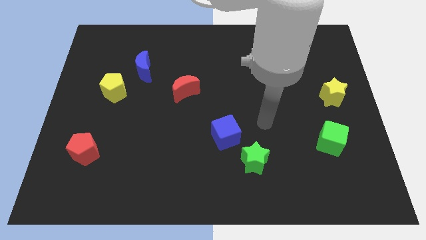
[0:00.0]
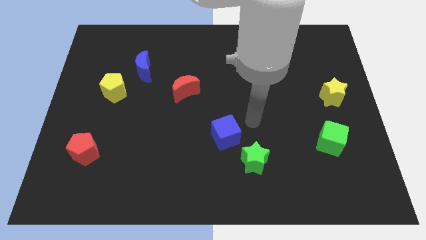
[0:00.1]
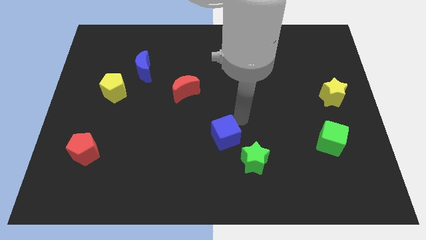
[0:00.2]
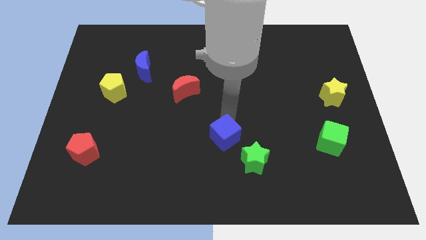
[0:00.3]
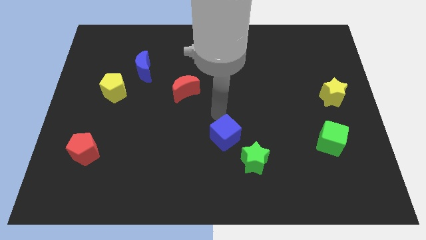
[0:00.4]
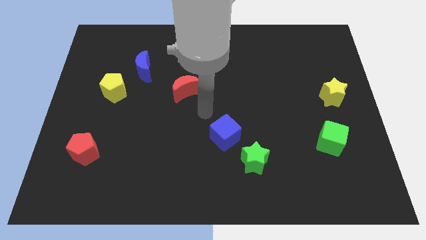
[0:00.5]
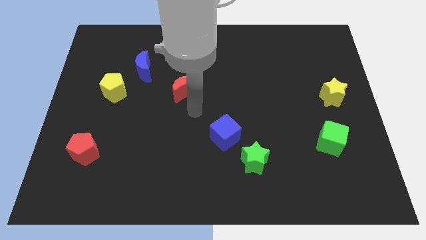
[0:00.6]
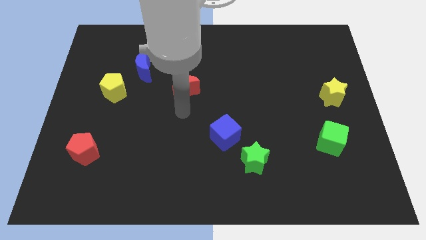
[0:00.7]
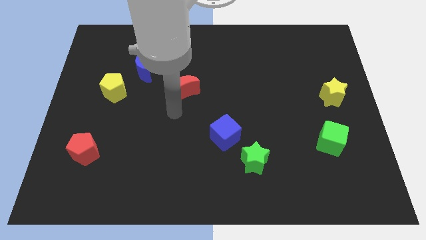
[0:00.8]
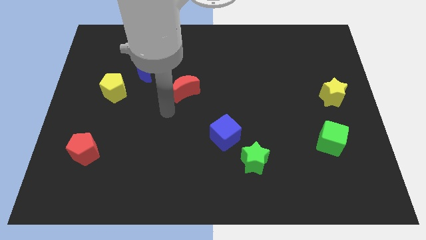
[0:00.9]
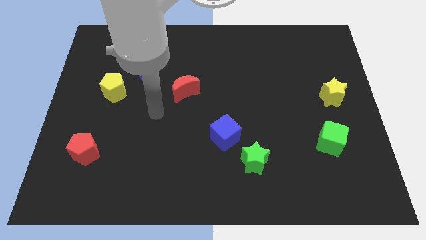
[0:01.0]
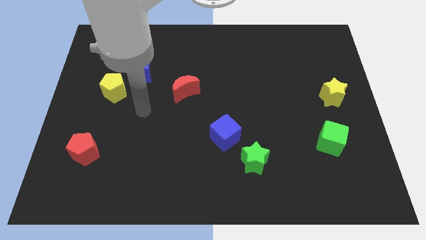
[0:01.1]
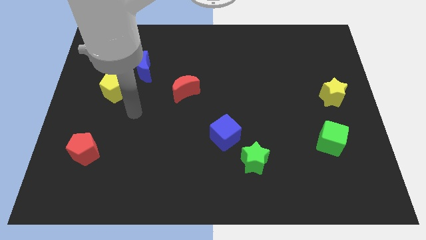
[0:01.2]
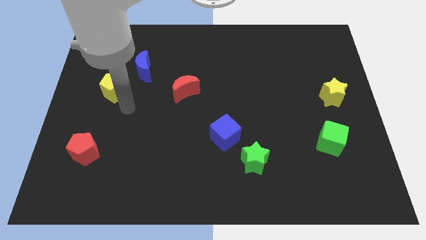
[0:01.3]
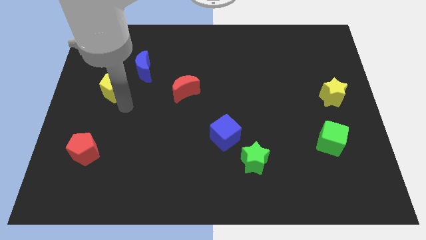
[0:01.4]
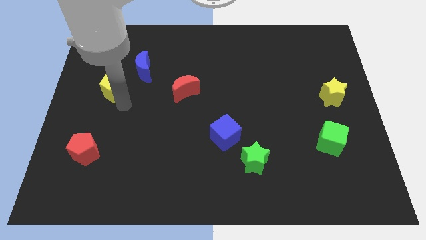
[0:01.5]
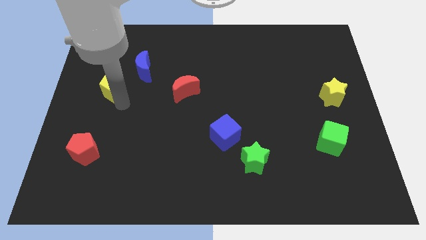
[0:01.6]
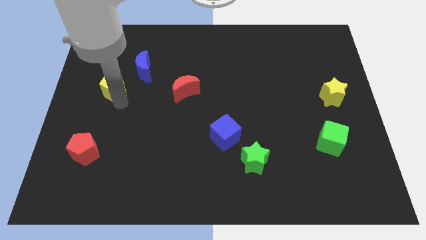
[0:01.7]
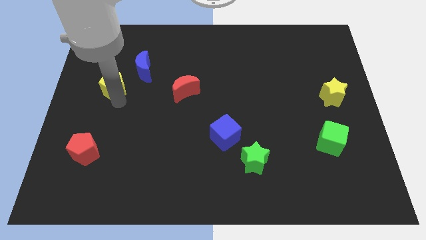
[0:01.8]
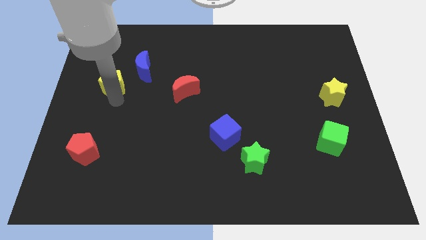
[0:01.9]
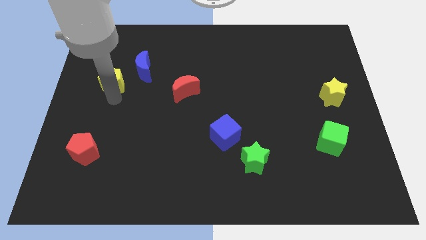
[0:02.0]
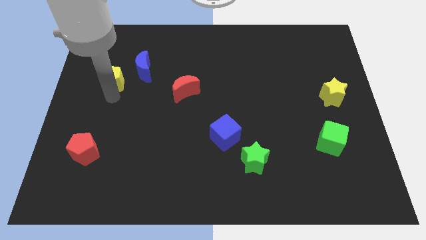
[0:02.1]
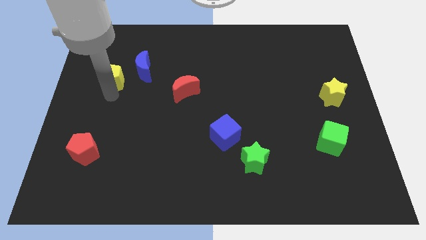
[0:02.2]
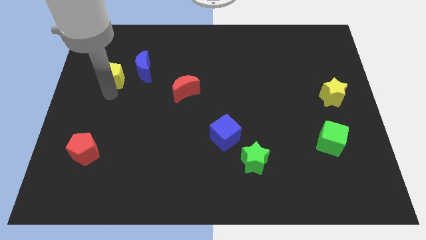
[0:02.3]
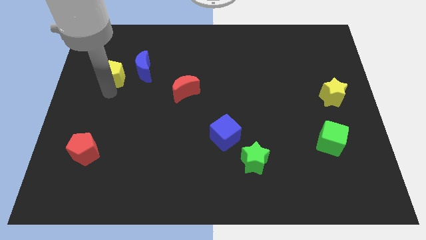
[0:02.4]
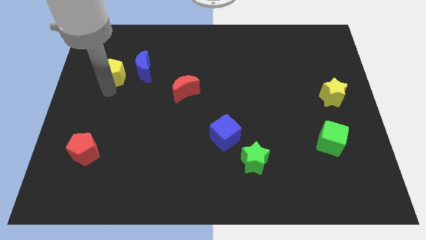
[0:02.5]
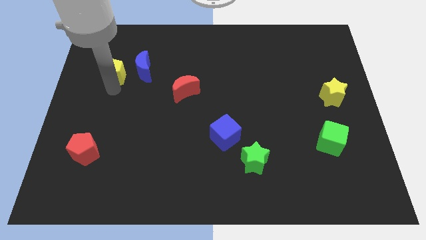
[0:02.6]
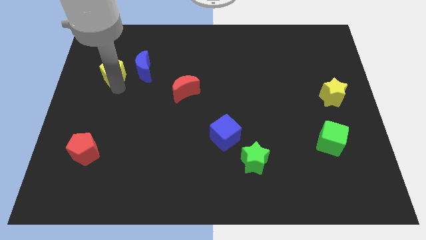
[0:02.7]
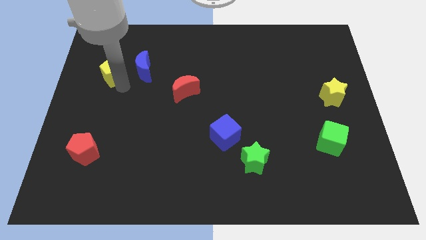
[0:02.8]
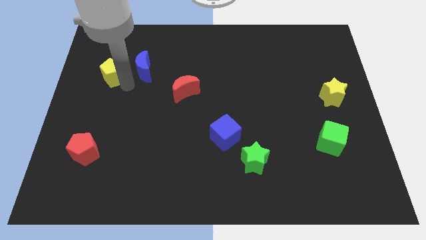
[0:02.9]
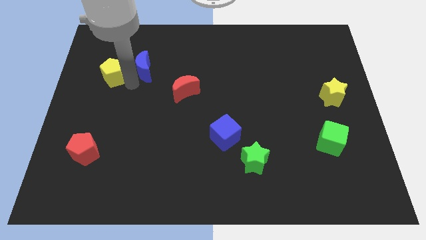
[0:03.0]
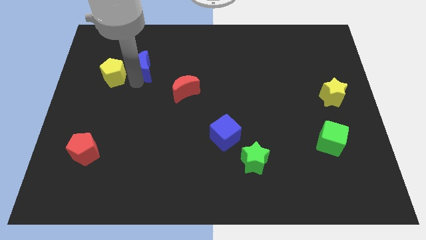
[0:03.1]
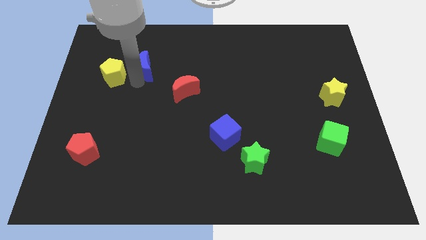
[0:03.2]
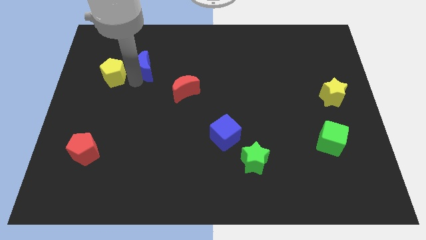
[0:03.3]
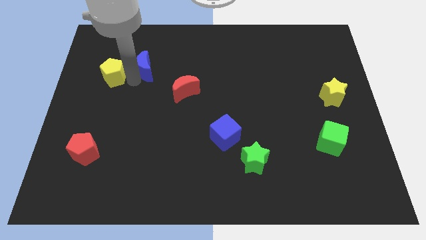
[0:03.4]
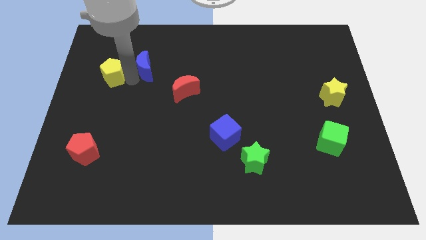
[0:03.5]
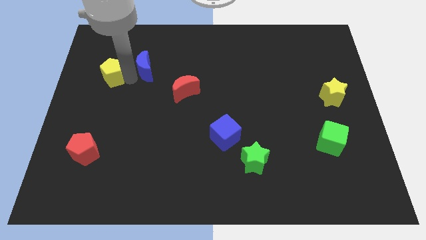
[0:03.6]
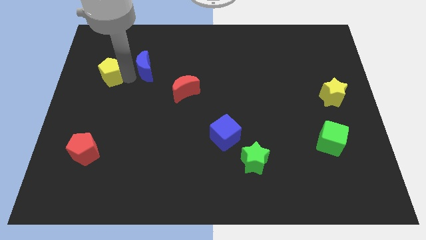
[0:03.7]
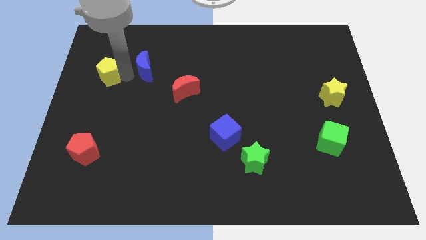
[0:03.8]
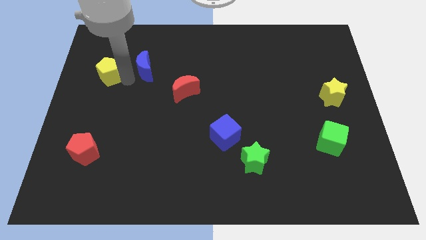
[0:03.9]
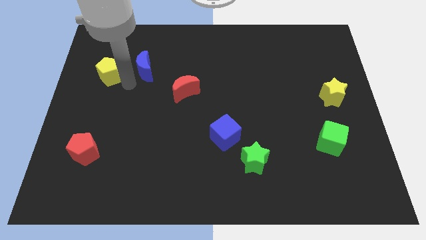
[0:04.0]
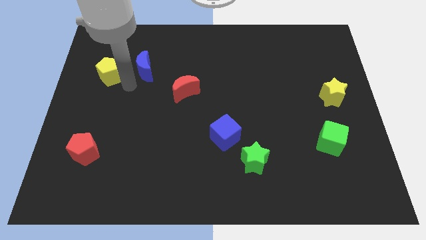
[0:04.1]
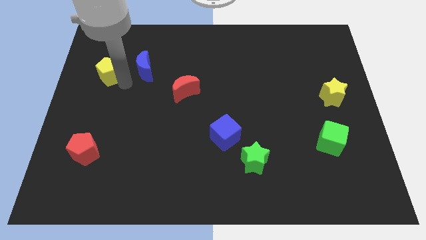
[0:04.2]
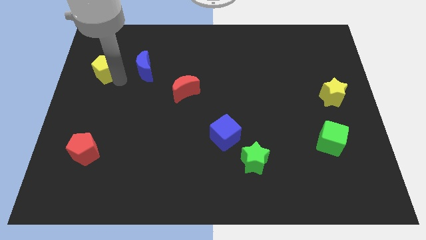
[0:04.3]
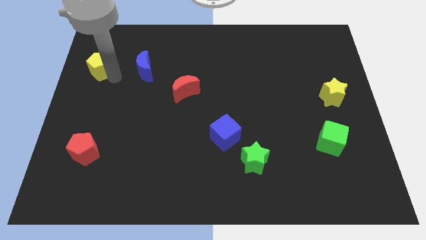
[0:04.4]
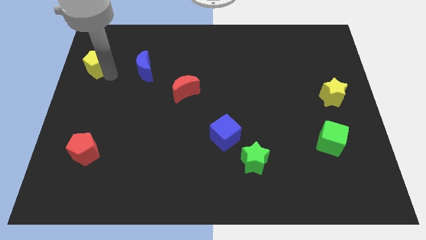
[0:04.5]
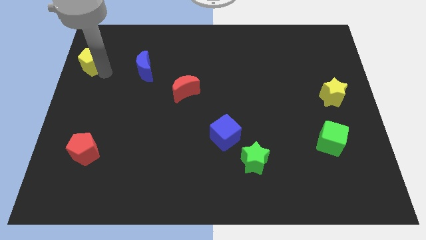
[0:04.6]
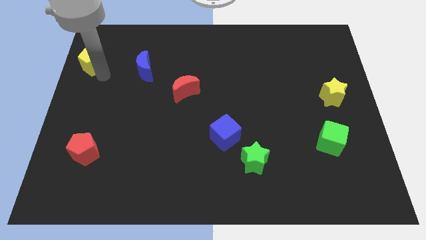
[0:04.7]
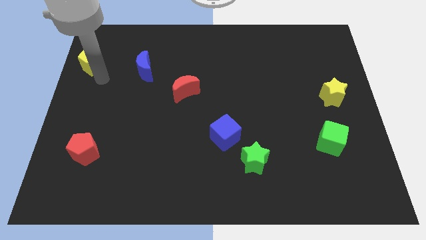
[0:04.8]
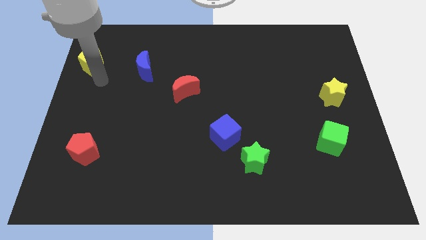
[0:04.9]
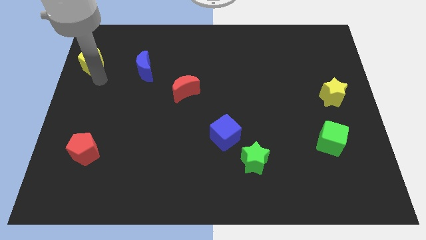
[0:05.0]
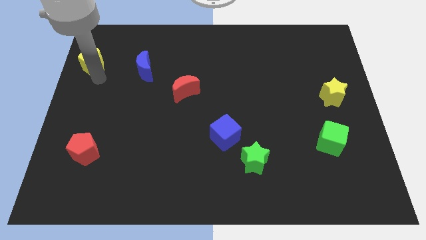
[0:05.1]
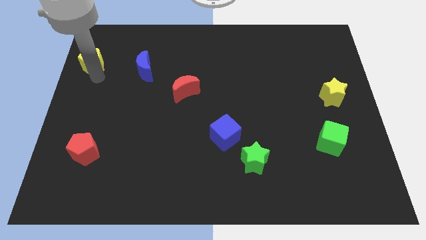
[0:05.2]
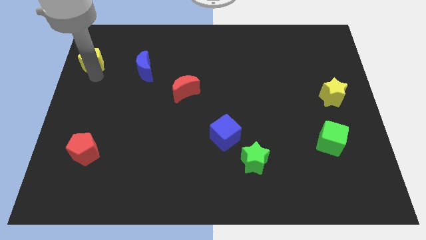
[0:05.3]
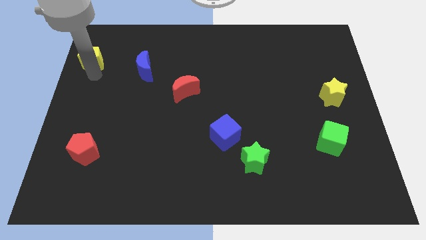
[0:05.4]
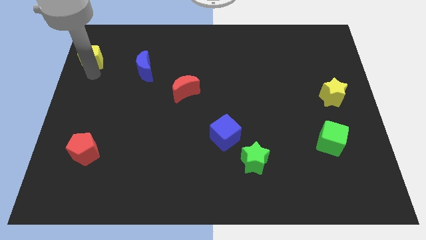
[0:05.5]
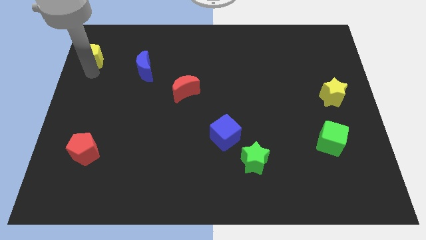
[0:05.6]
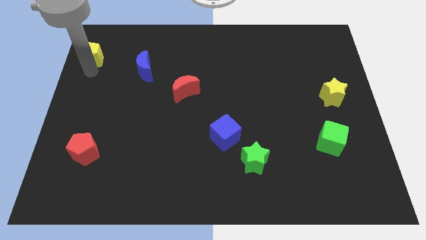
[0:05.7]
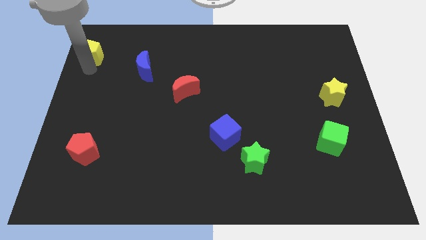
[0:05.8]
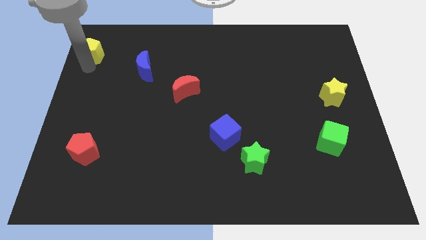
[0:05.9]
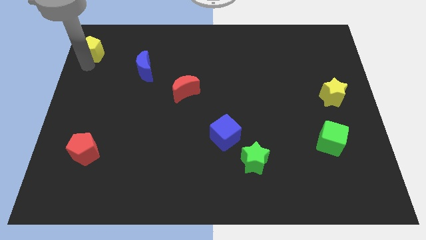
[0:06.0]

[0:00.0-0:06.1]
slide the yellow pentagon to the top left
